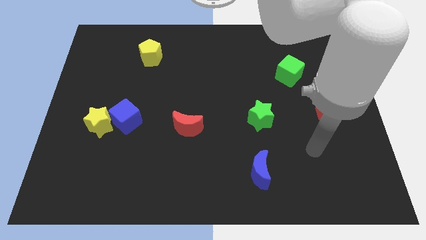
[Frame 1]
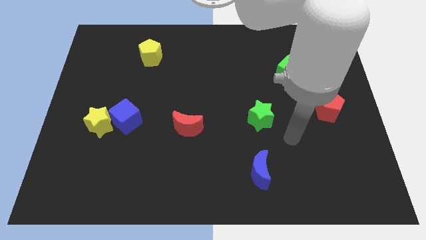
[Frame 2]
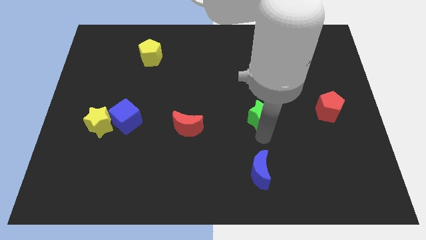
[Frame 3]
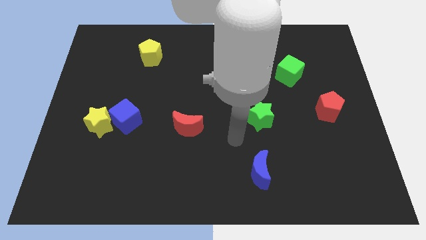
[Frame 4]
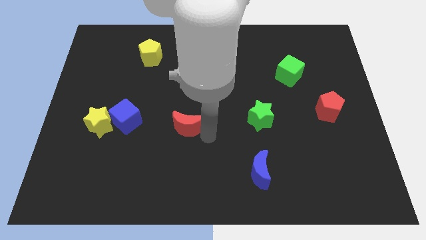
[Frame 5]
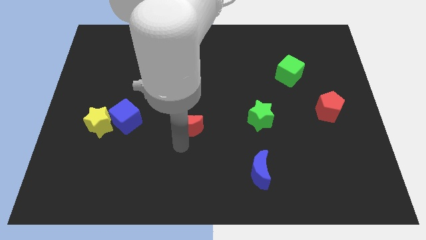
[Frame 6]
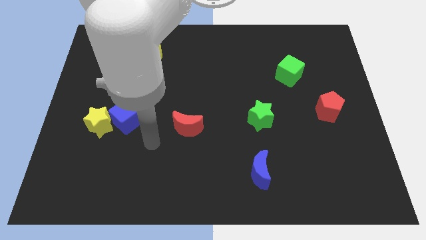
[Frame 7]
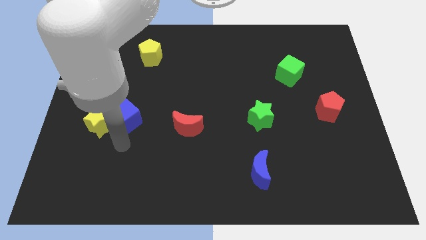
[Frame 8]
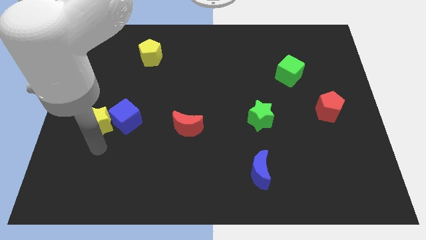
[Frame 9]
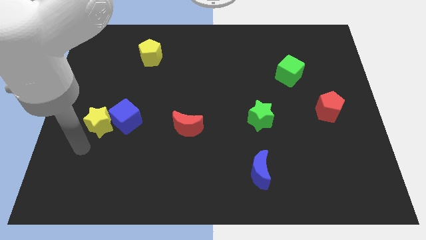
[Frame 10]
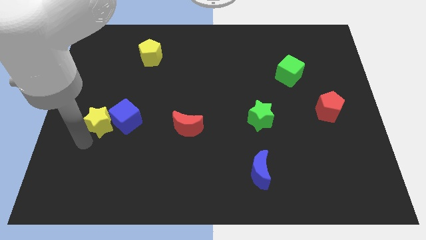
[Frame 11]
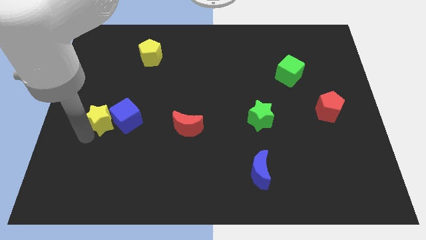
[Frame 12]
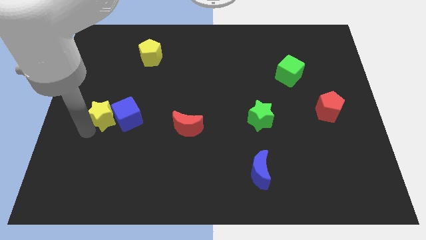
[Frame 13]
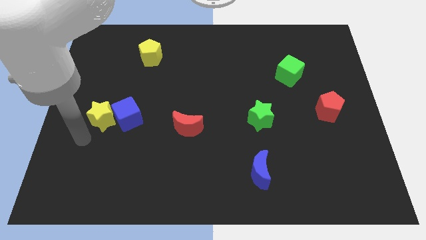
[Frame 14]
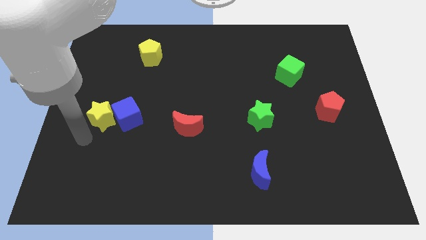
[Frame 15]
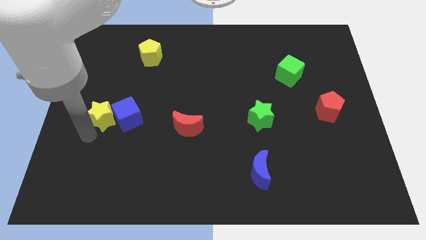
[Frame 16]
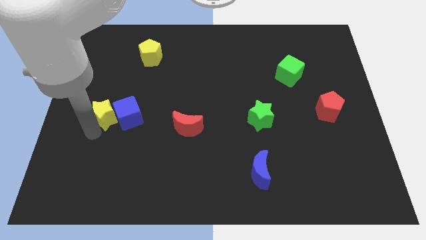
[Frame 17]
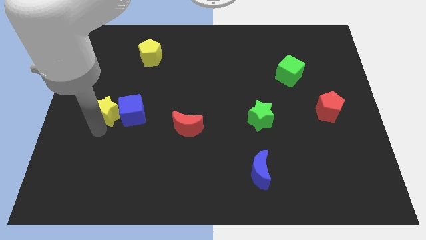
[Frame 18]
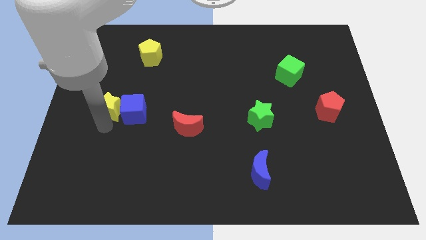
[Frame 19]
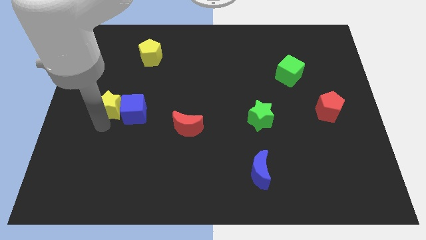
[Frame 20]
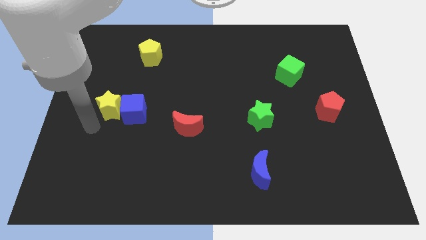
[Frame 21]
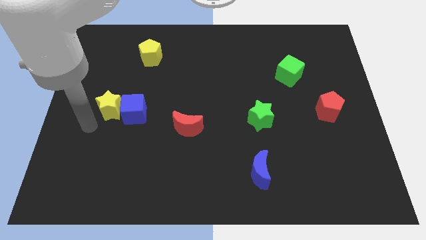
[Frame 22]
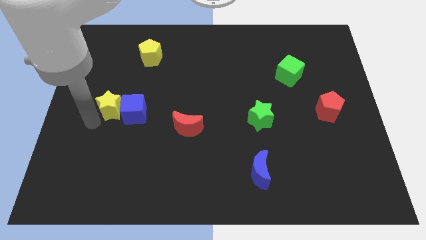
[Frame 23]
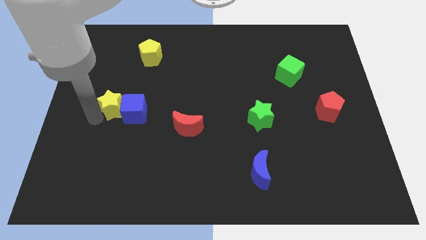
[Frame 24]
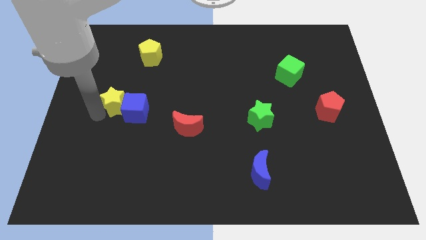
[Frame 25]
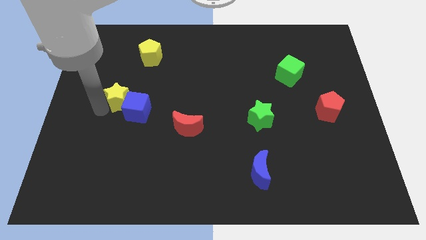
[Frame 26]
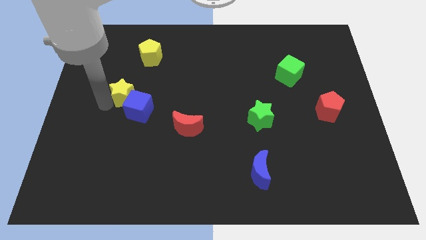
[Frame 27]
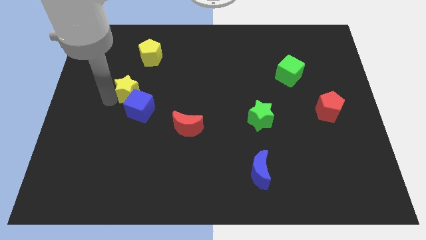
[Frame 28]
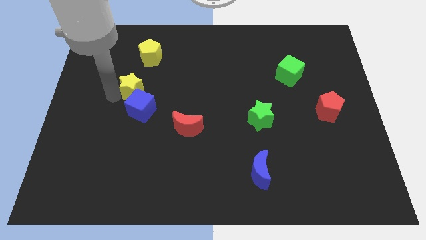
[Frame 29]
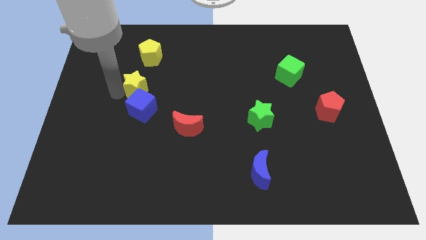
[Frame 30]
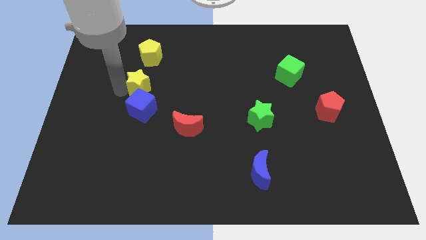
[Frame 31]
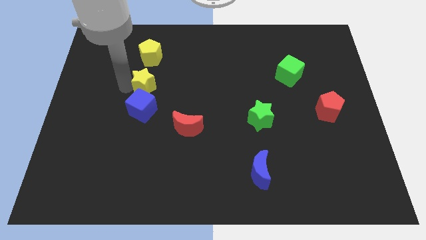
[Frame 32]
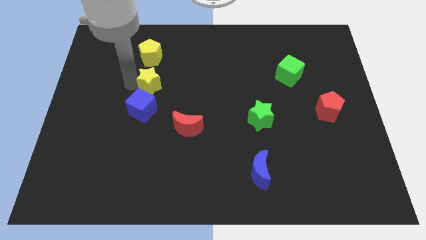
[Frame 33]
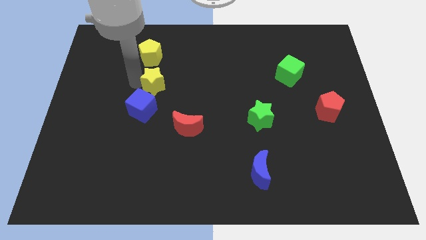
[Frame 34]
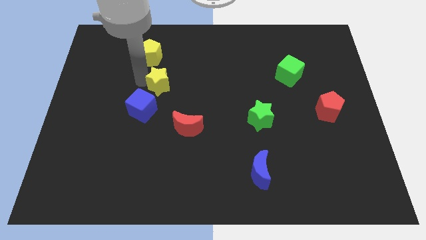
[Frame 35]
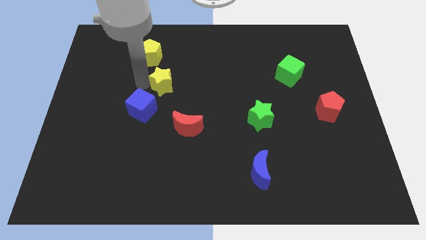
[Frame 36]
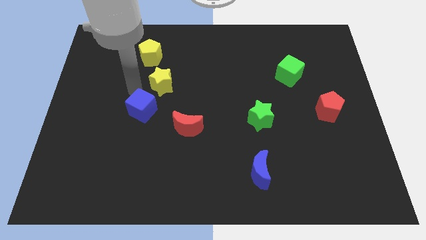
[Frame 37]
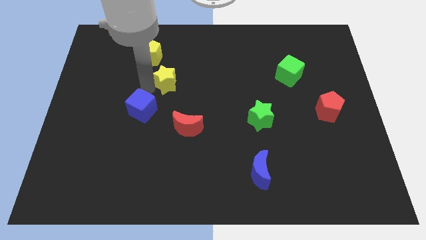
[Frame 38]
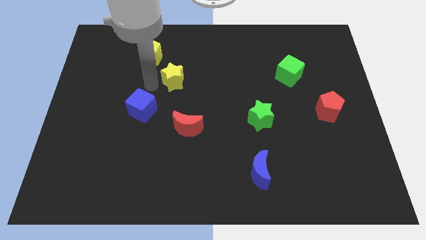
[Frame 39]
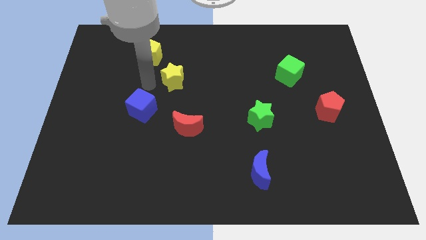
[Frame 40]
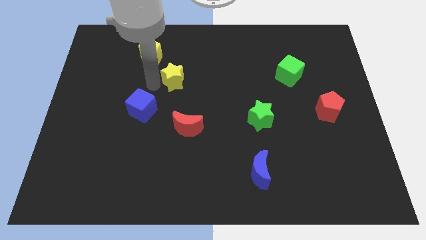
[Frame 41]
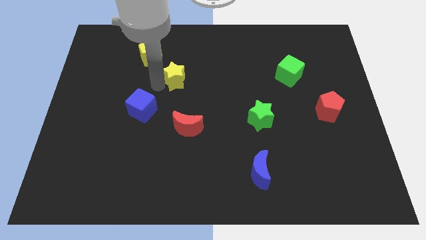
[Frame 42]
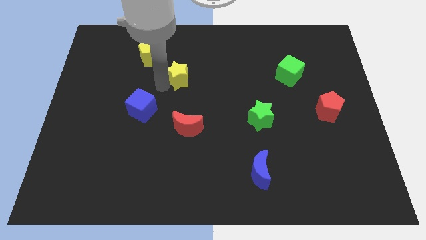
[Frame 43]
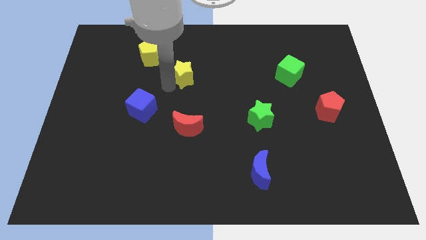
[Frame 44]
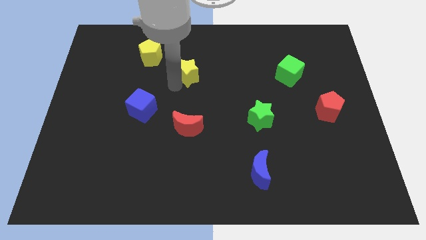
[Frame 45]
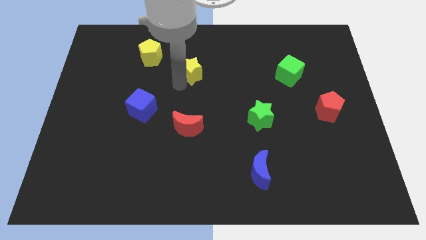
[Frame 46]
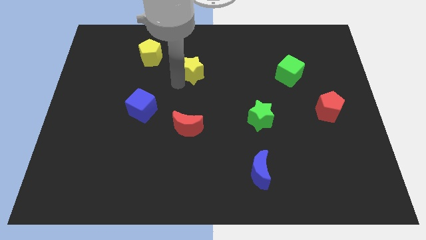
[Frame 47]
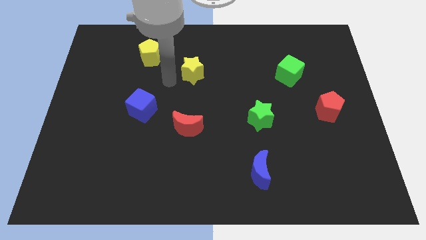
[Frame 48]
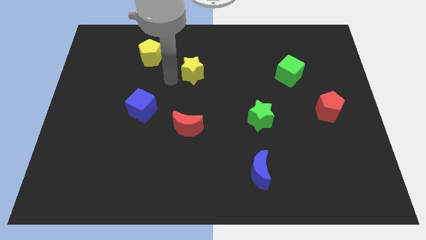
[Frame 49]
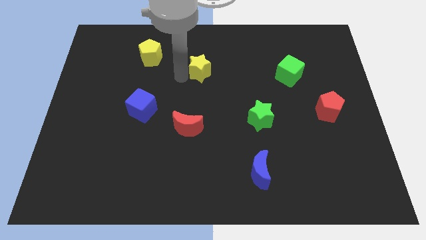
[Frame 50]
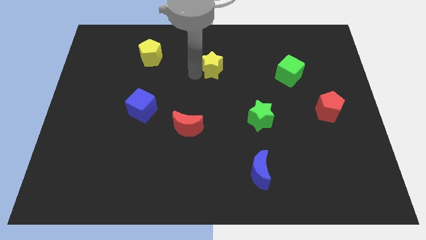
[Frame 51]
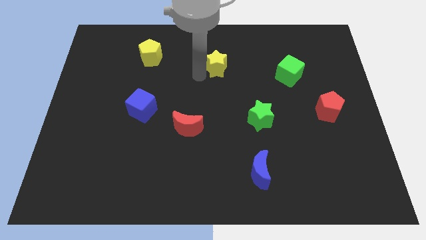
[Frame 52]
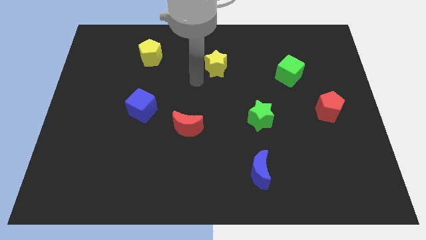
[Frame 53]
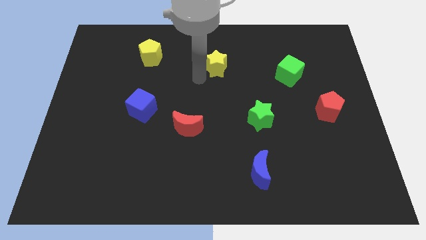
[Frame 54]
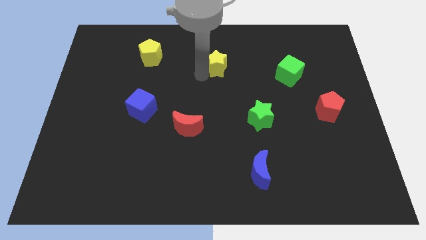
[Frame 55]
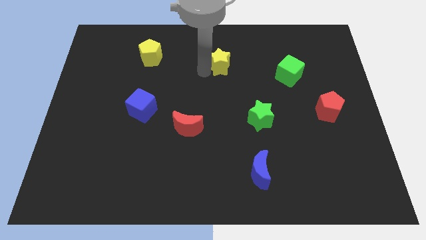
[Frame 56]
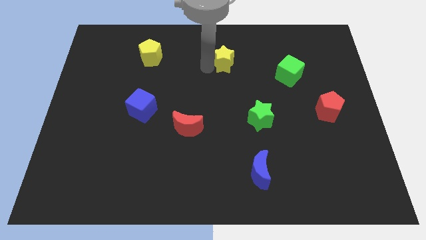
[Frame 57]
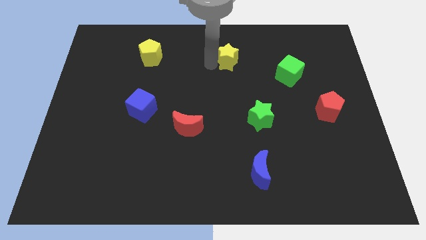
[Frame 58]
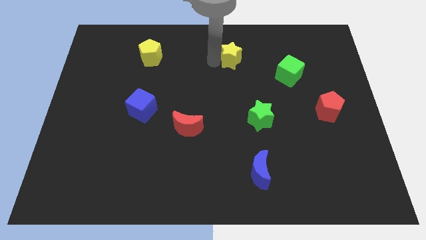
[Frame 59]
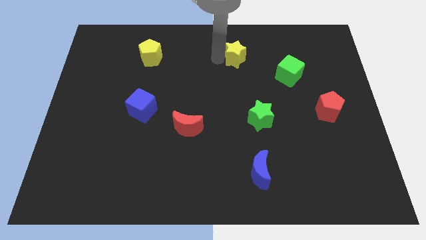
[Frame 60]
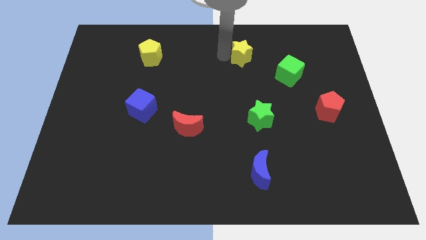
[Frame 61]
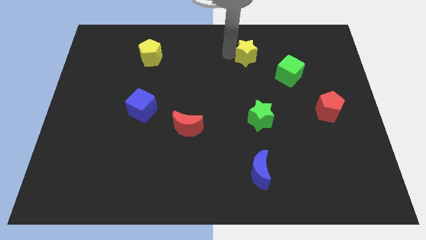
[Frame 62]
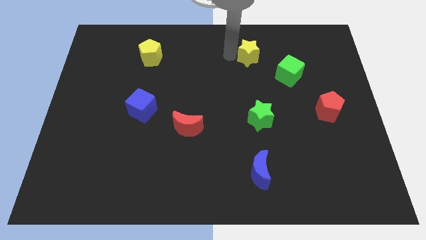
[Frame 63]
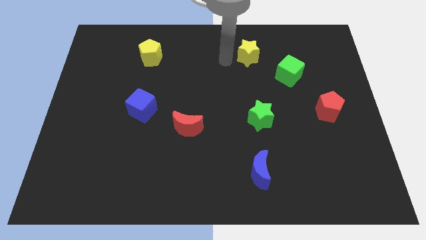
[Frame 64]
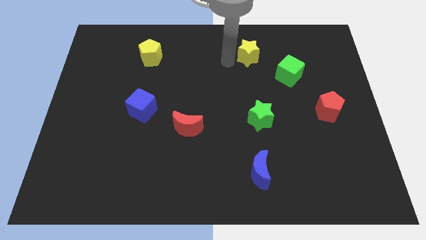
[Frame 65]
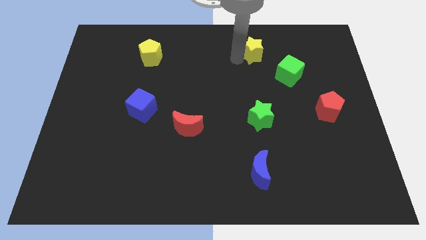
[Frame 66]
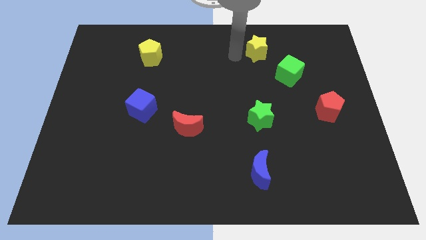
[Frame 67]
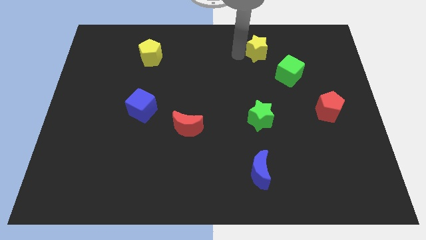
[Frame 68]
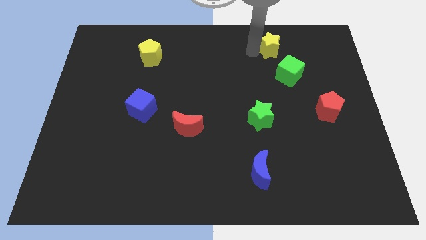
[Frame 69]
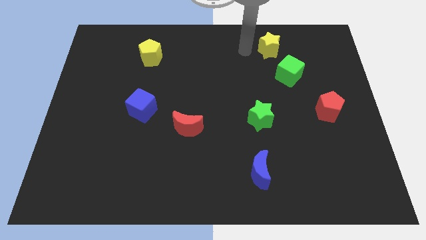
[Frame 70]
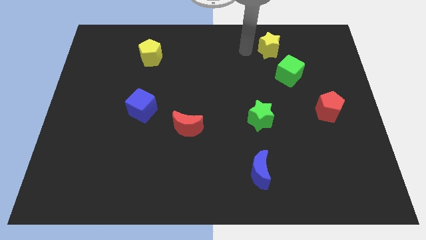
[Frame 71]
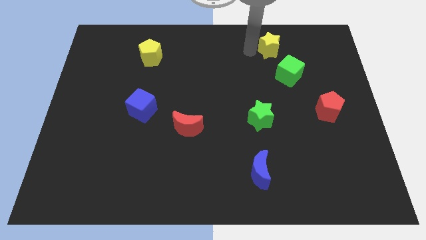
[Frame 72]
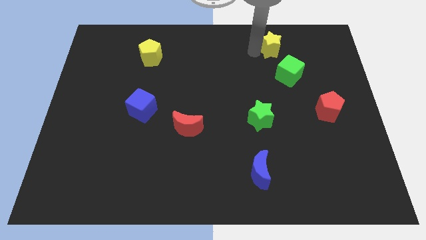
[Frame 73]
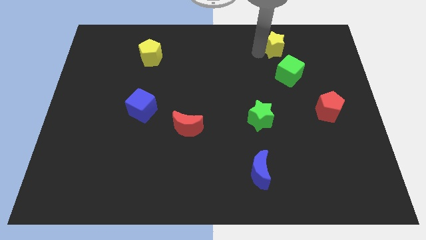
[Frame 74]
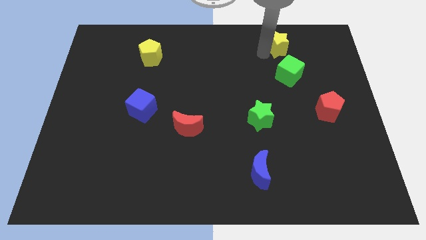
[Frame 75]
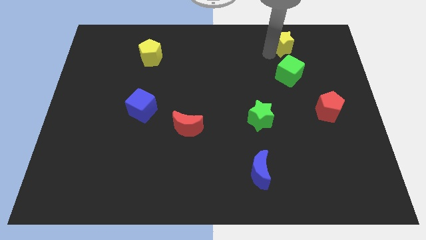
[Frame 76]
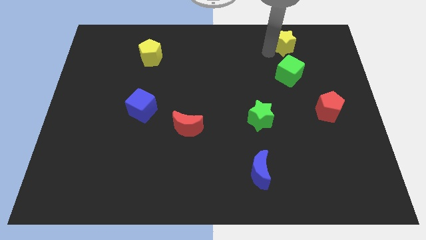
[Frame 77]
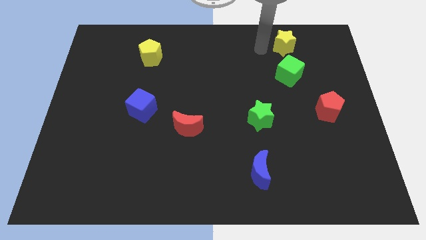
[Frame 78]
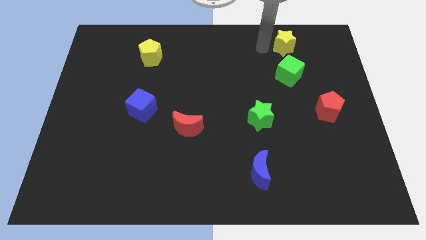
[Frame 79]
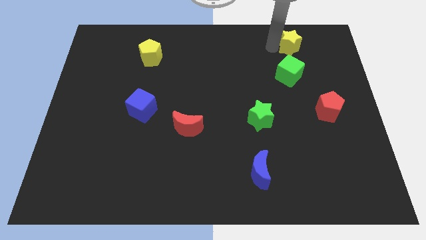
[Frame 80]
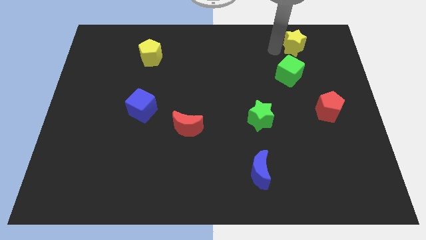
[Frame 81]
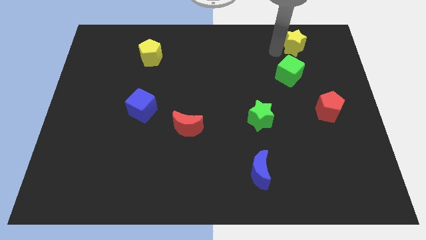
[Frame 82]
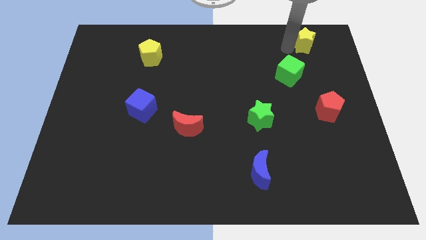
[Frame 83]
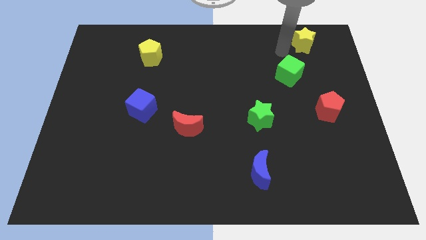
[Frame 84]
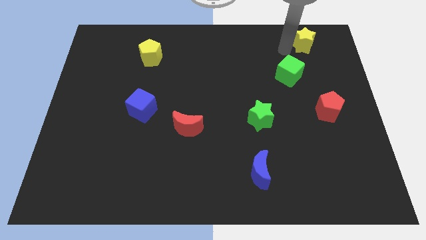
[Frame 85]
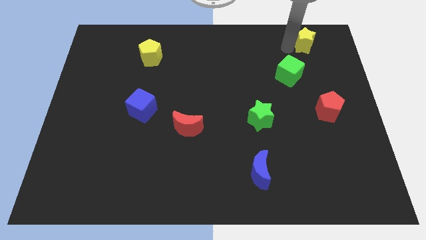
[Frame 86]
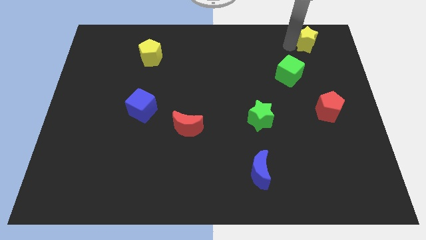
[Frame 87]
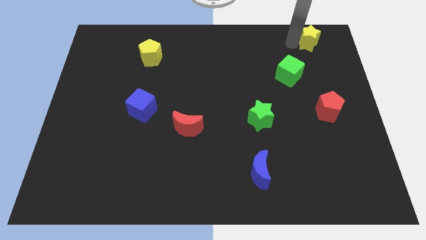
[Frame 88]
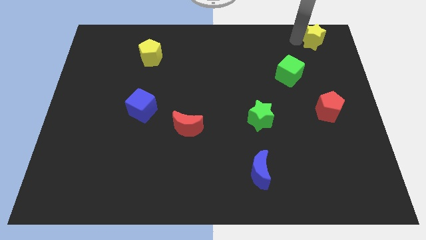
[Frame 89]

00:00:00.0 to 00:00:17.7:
move the yellow star to the top right of the board
